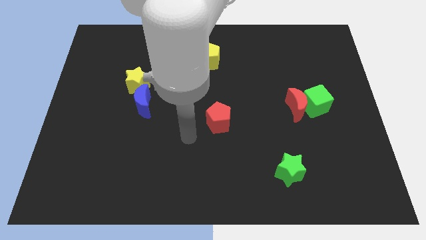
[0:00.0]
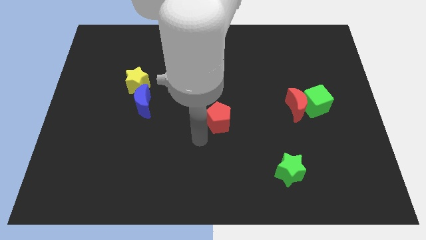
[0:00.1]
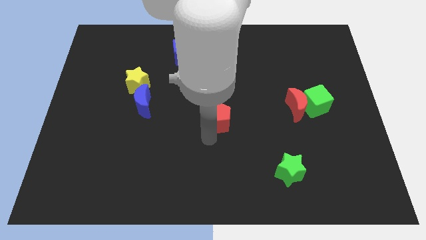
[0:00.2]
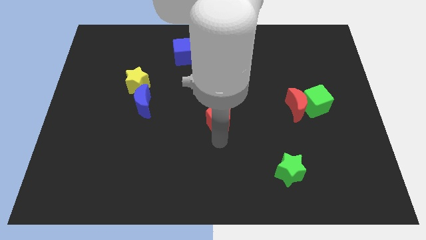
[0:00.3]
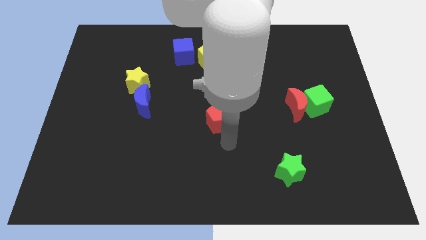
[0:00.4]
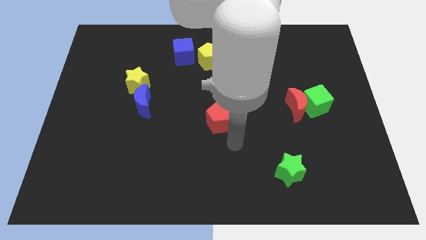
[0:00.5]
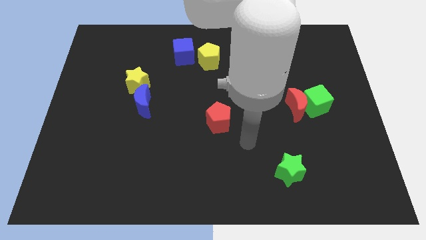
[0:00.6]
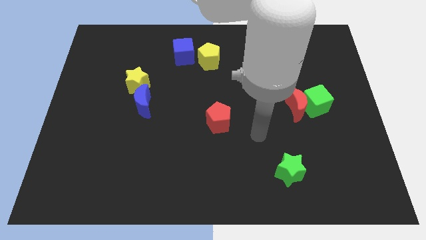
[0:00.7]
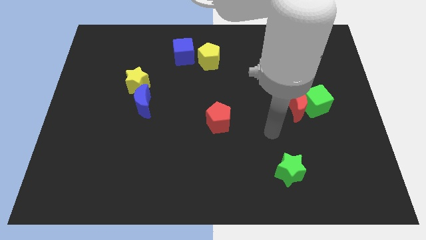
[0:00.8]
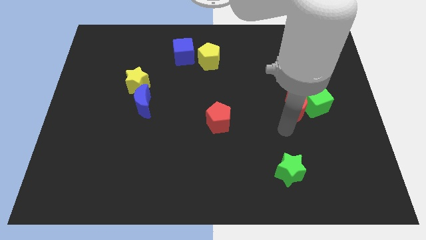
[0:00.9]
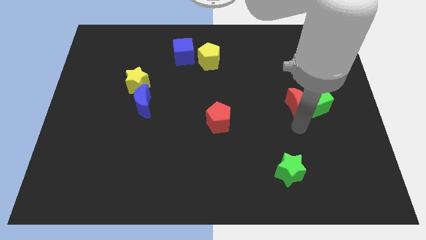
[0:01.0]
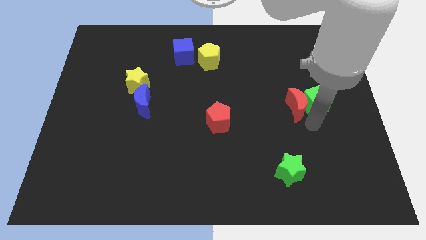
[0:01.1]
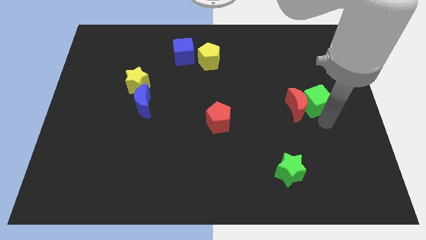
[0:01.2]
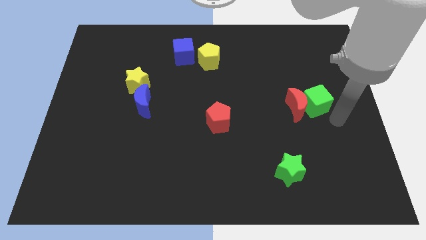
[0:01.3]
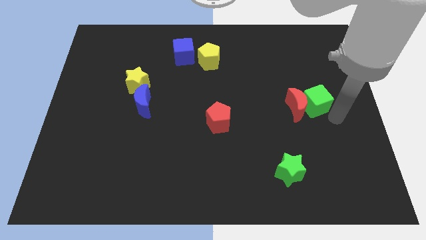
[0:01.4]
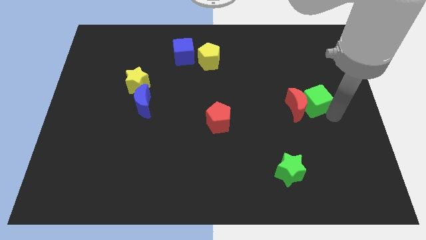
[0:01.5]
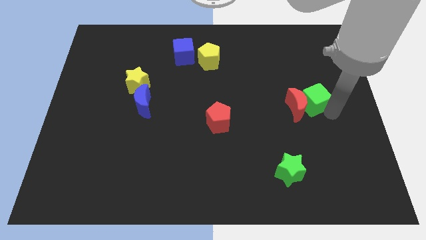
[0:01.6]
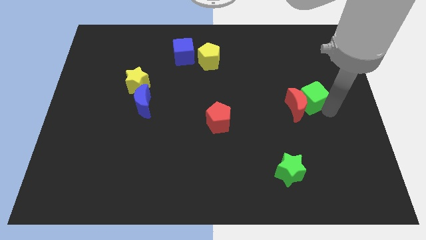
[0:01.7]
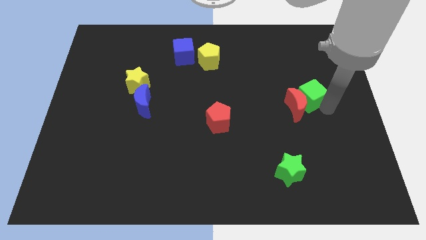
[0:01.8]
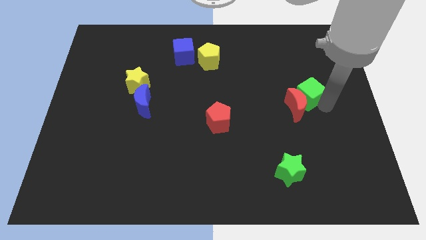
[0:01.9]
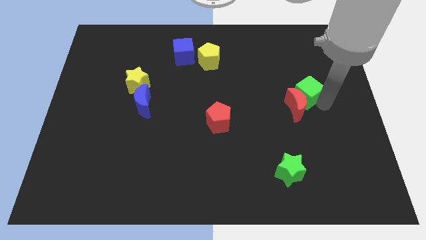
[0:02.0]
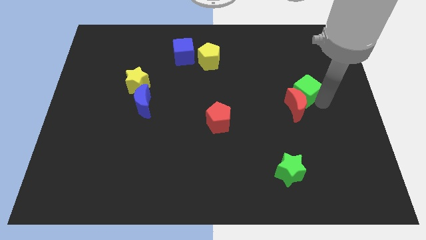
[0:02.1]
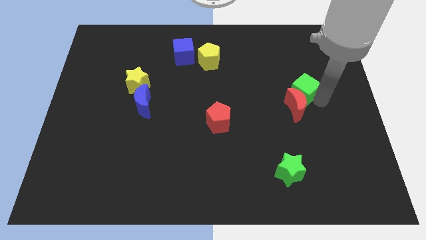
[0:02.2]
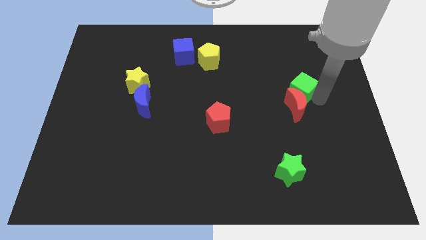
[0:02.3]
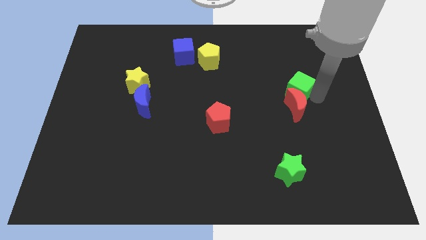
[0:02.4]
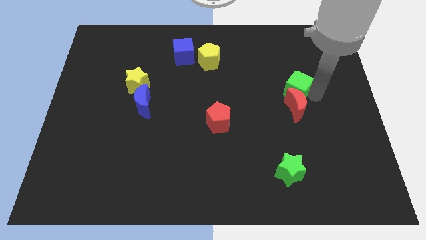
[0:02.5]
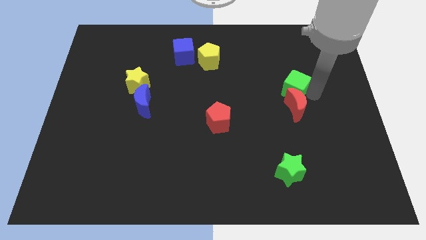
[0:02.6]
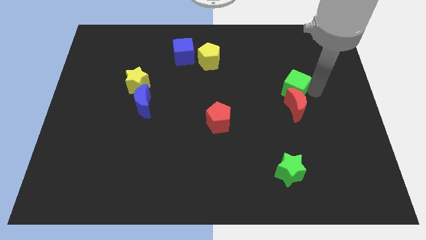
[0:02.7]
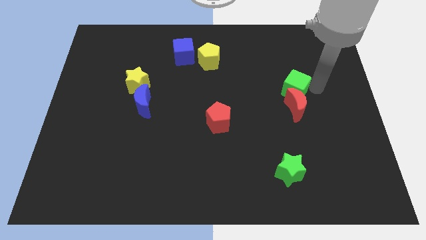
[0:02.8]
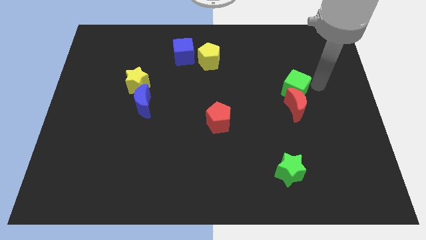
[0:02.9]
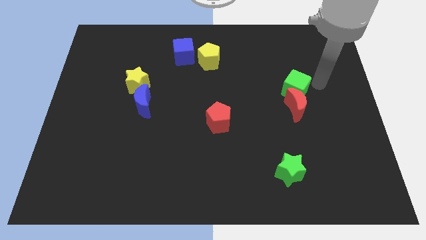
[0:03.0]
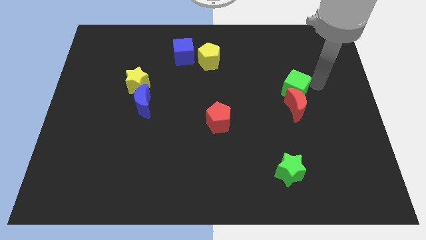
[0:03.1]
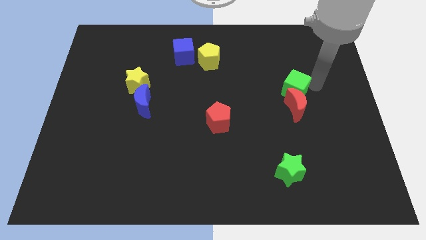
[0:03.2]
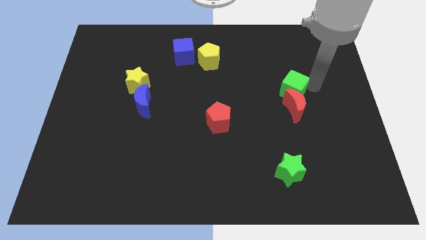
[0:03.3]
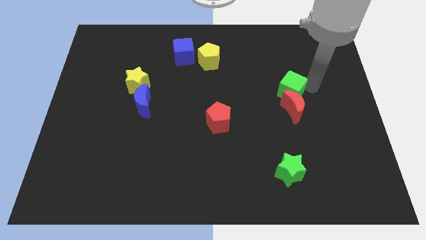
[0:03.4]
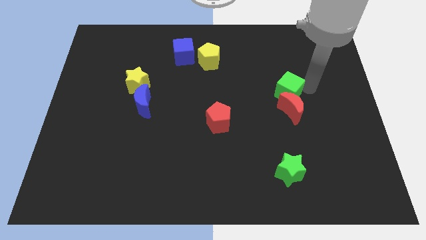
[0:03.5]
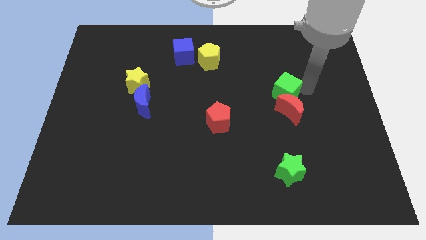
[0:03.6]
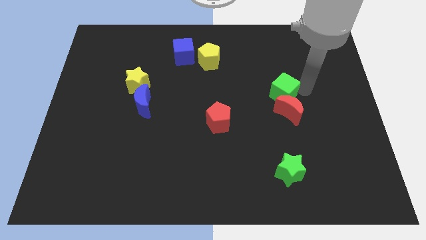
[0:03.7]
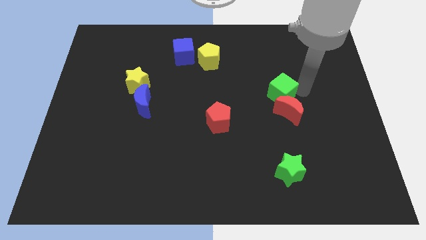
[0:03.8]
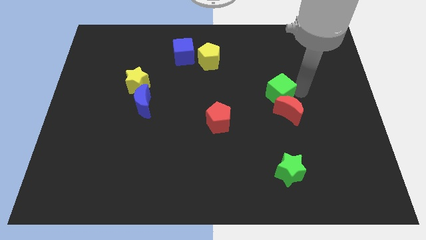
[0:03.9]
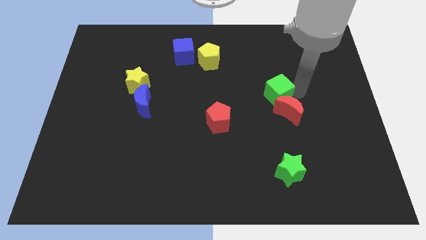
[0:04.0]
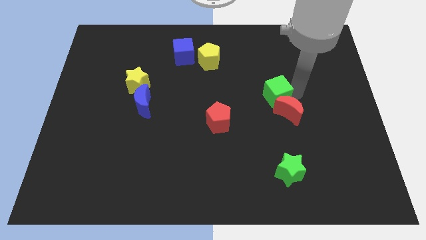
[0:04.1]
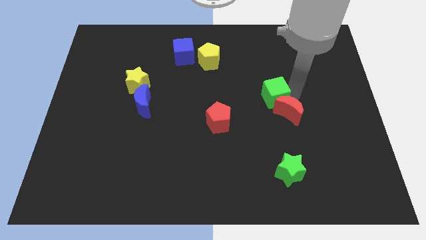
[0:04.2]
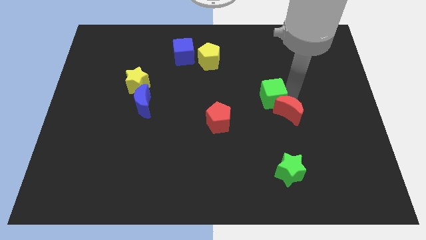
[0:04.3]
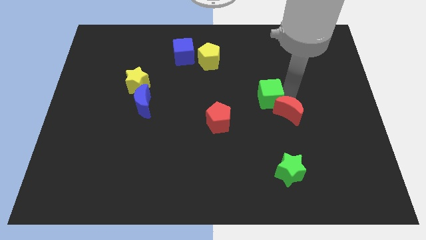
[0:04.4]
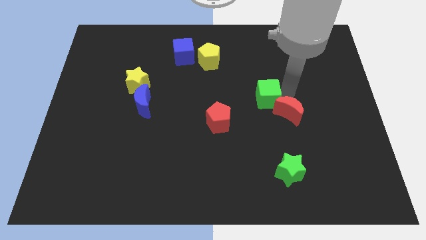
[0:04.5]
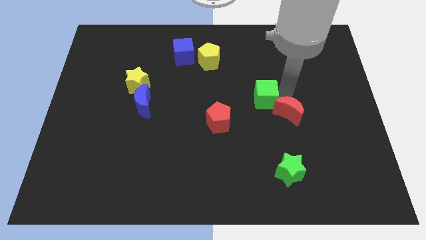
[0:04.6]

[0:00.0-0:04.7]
put the green cube to the middle

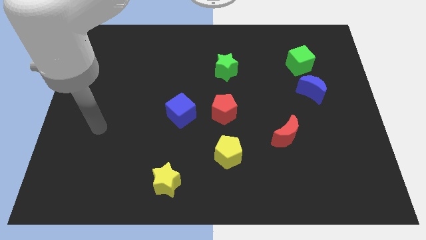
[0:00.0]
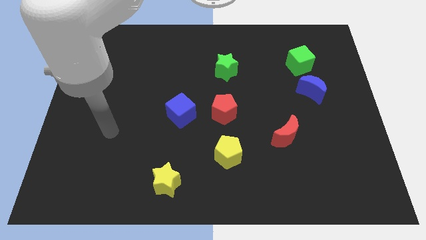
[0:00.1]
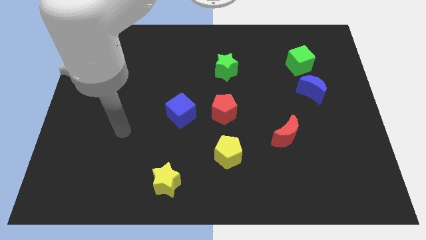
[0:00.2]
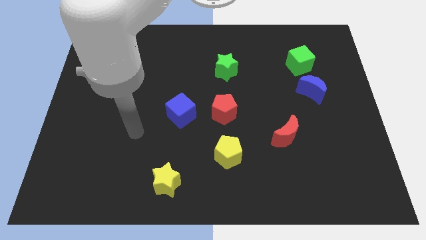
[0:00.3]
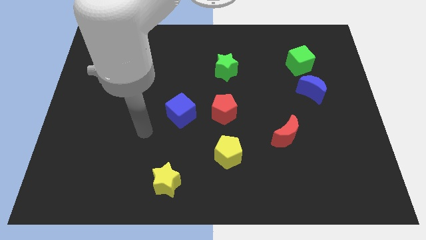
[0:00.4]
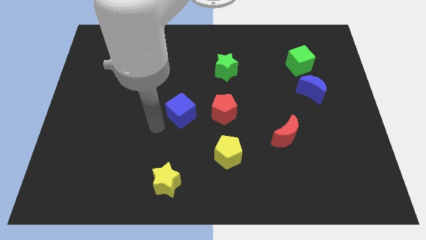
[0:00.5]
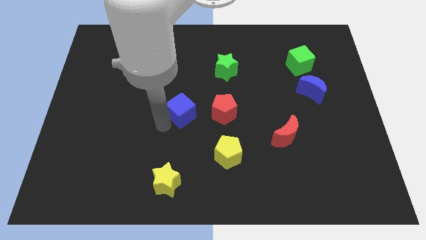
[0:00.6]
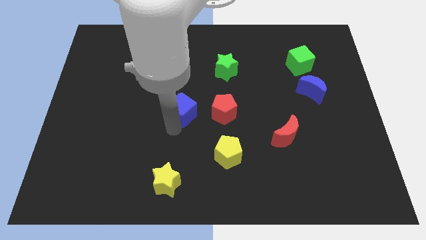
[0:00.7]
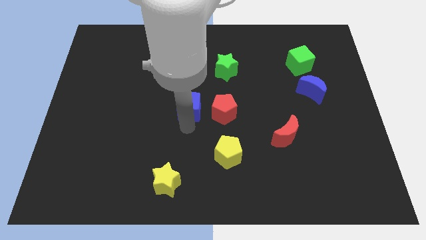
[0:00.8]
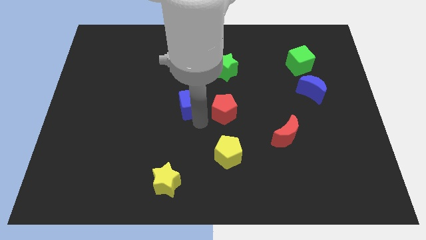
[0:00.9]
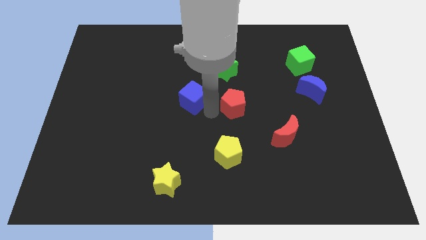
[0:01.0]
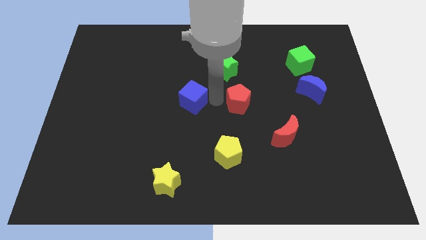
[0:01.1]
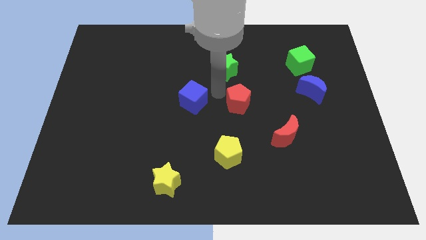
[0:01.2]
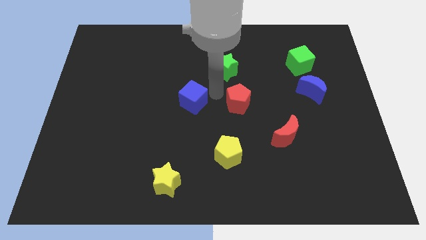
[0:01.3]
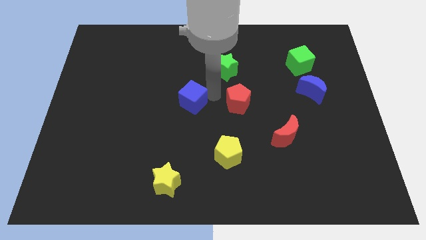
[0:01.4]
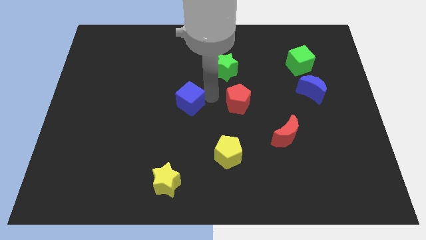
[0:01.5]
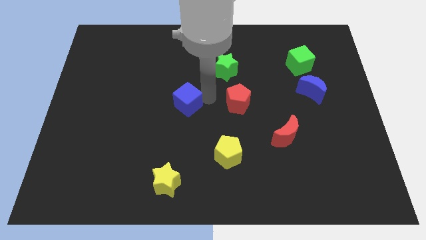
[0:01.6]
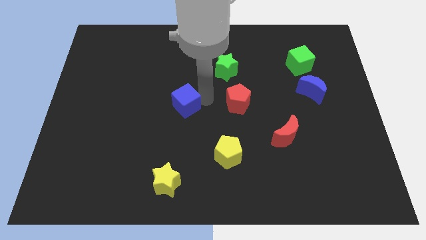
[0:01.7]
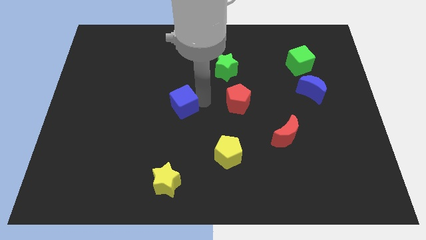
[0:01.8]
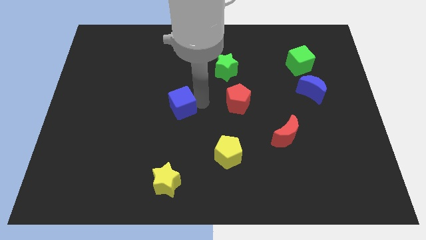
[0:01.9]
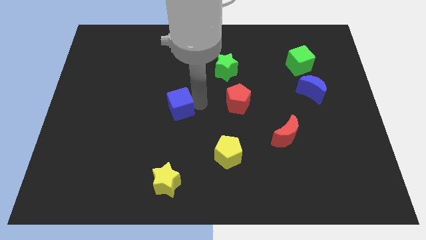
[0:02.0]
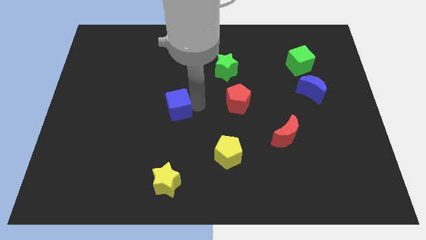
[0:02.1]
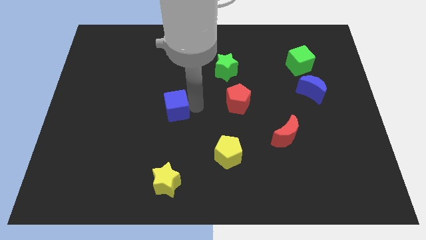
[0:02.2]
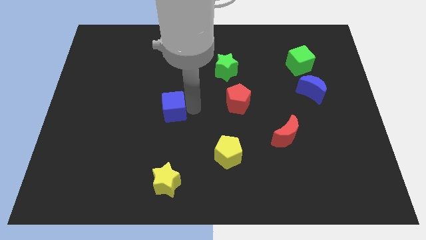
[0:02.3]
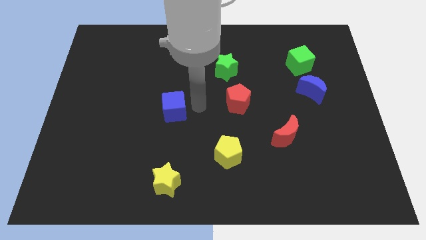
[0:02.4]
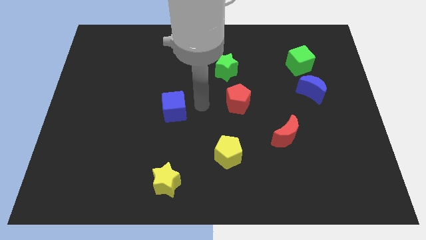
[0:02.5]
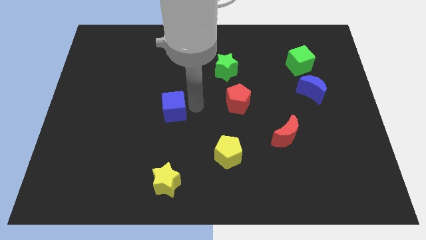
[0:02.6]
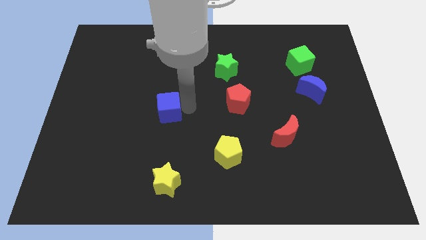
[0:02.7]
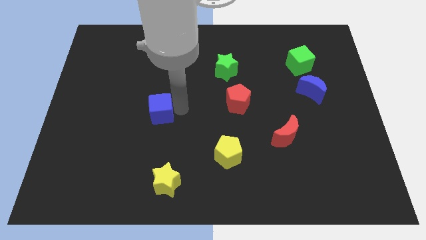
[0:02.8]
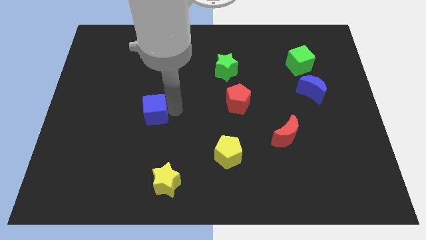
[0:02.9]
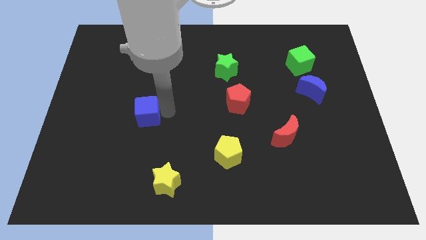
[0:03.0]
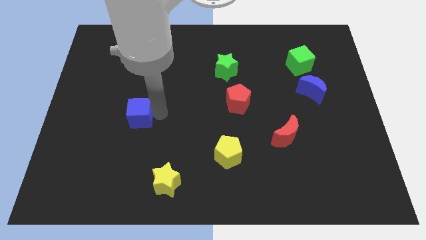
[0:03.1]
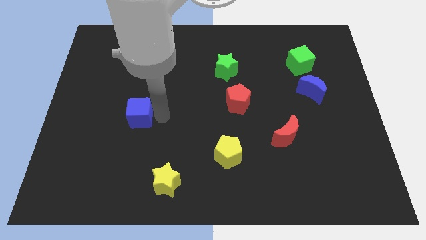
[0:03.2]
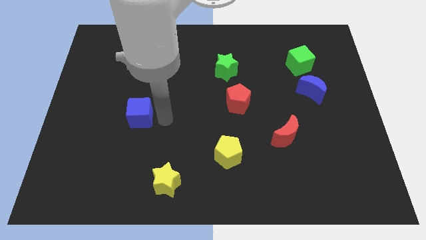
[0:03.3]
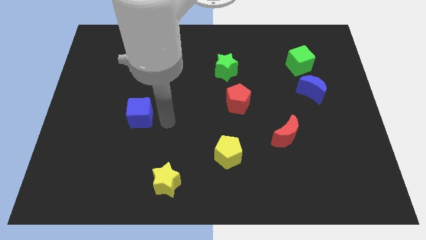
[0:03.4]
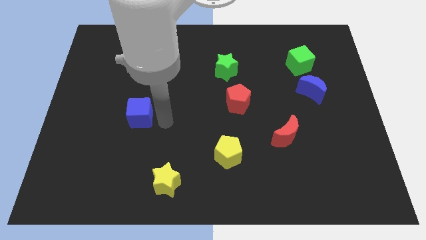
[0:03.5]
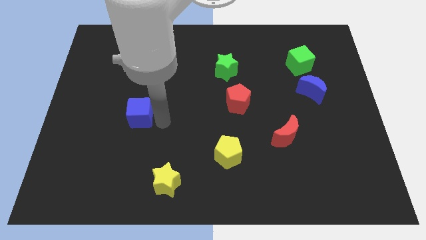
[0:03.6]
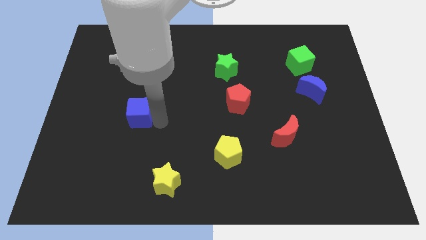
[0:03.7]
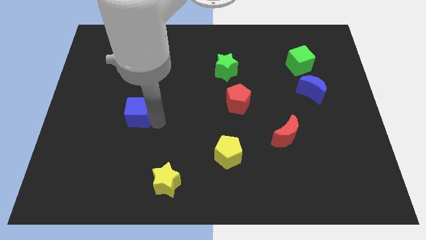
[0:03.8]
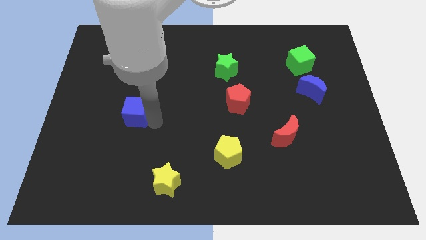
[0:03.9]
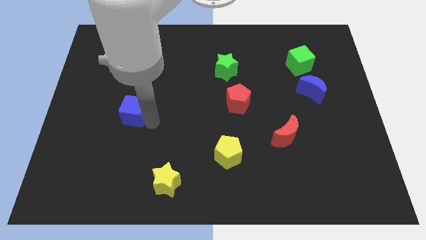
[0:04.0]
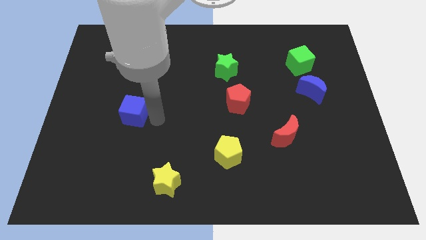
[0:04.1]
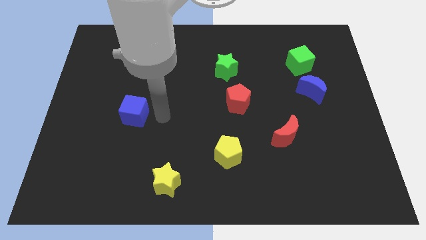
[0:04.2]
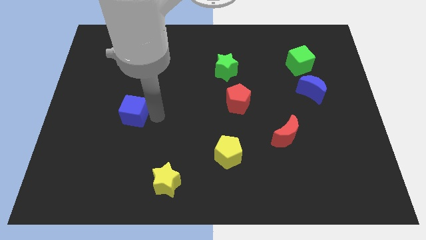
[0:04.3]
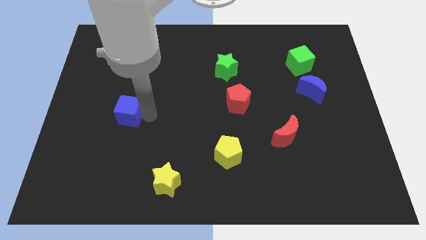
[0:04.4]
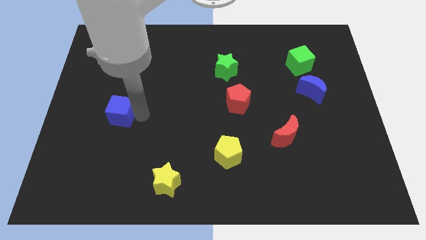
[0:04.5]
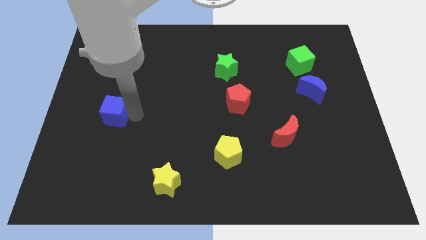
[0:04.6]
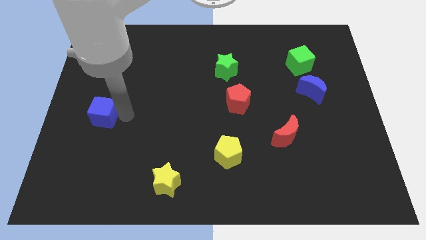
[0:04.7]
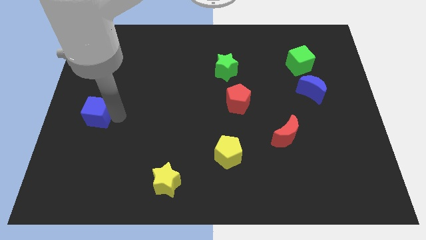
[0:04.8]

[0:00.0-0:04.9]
push the blue cube to the center left
